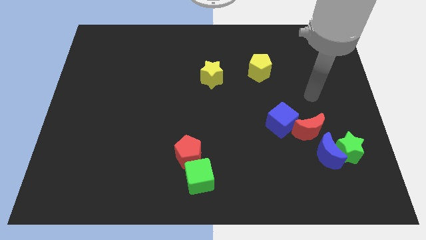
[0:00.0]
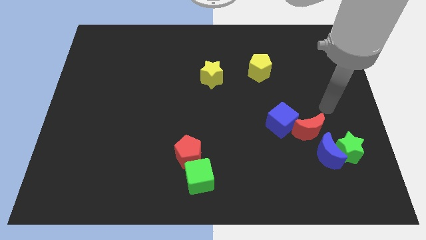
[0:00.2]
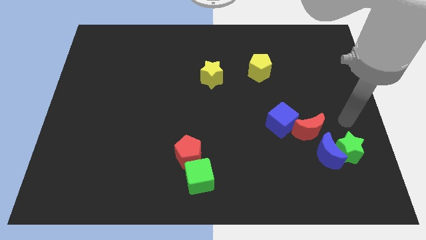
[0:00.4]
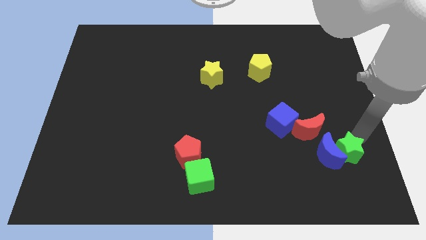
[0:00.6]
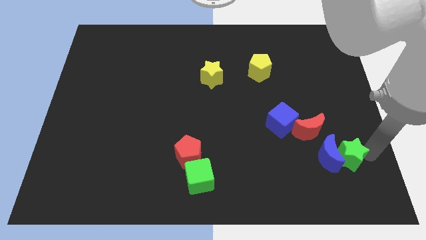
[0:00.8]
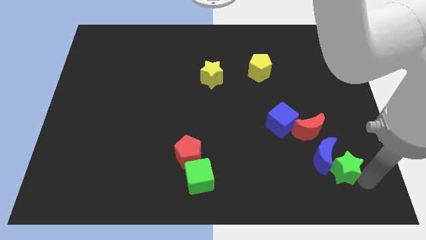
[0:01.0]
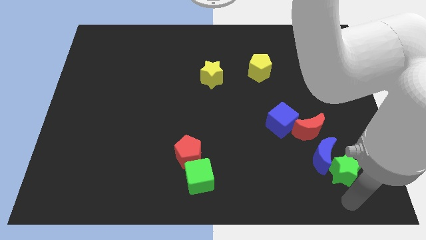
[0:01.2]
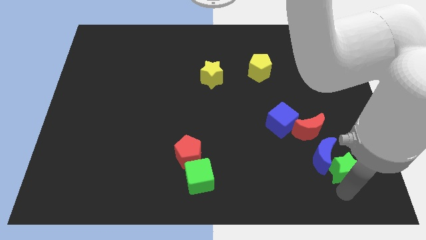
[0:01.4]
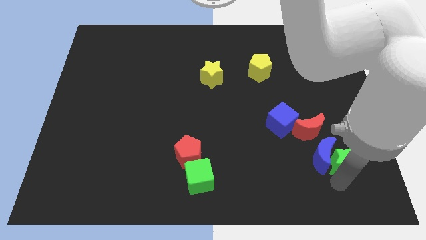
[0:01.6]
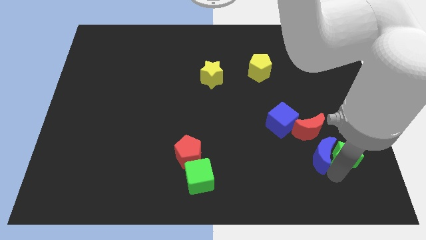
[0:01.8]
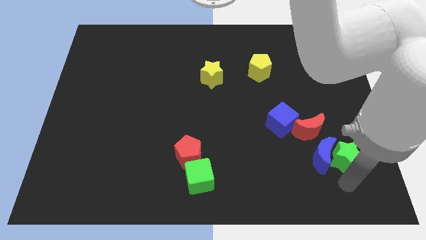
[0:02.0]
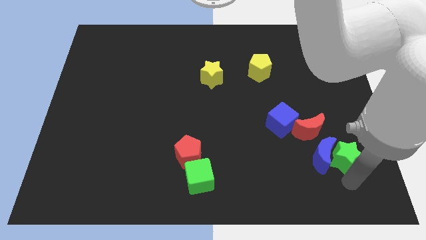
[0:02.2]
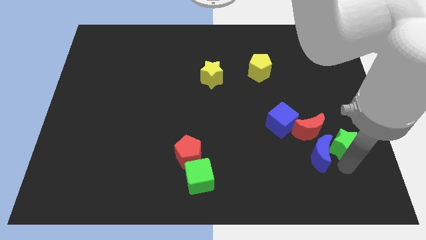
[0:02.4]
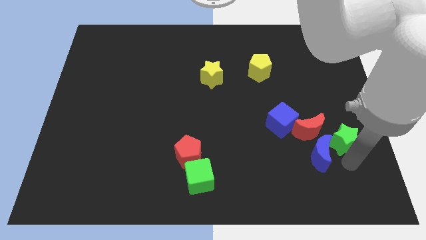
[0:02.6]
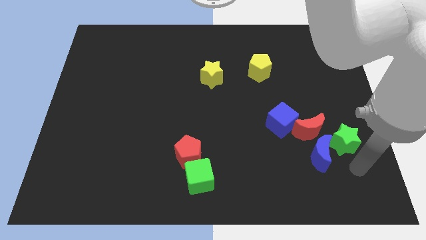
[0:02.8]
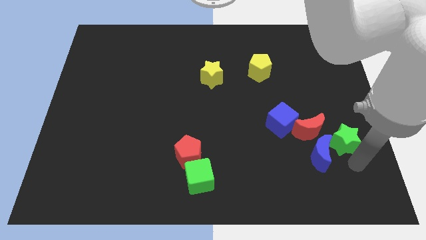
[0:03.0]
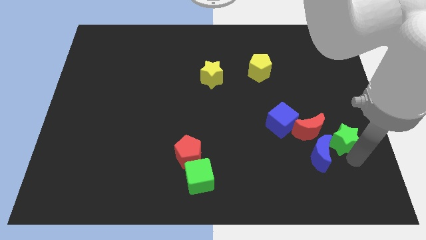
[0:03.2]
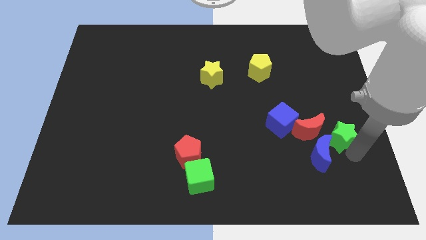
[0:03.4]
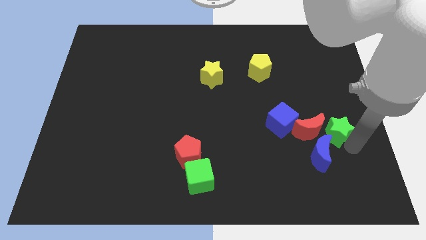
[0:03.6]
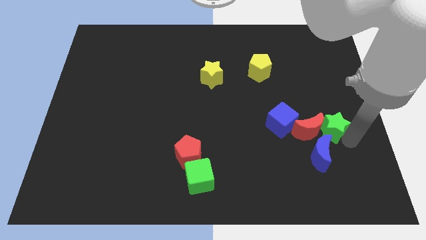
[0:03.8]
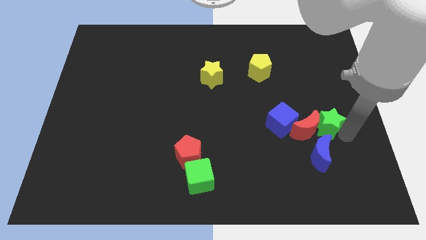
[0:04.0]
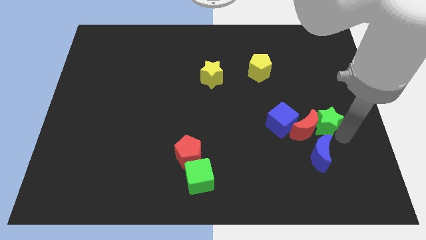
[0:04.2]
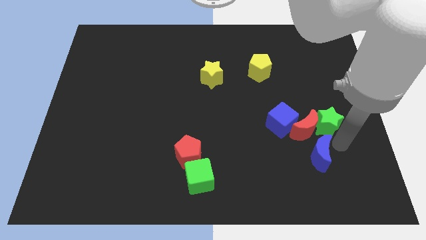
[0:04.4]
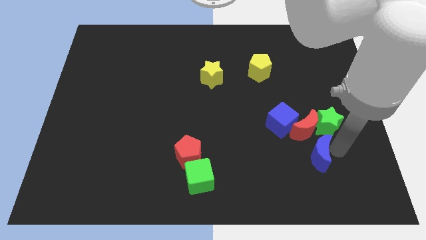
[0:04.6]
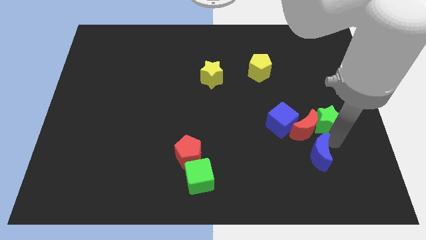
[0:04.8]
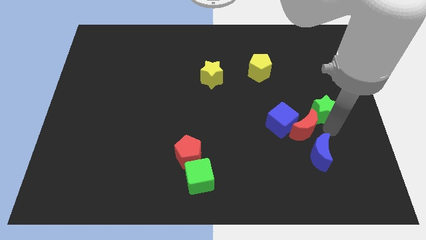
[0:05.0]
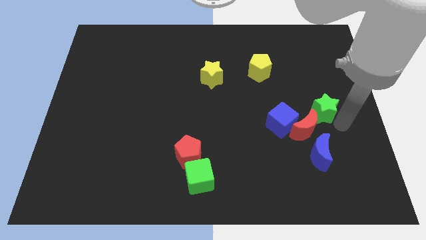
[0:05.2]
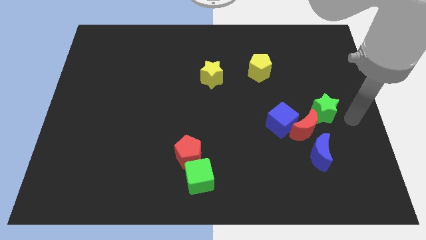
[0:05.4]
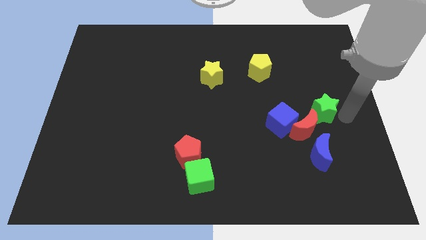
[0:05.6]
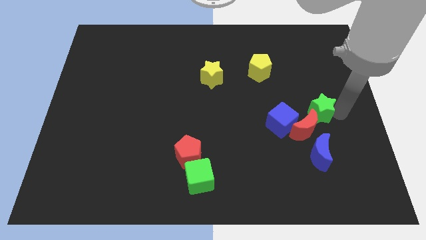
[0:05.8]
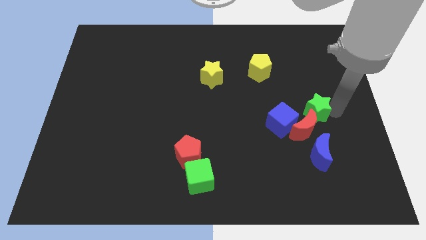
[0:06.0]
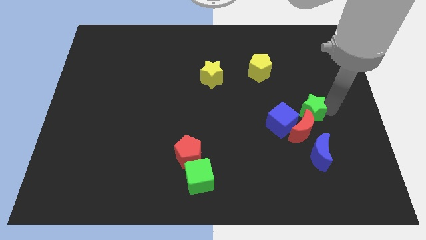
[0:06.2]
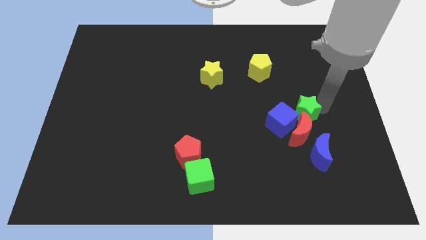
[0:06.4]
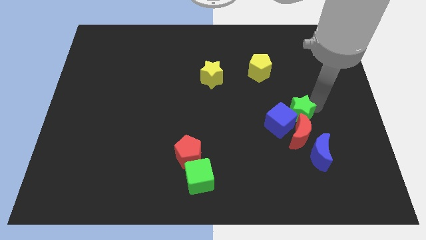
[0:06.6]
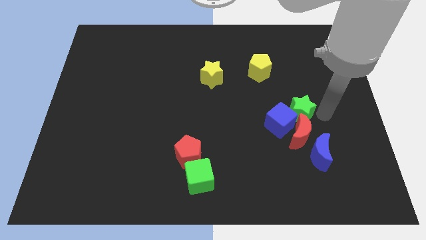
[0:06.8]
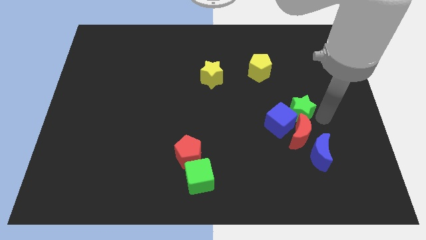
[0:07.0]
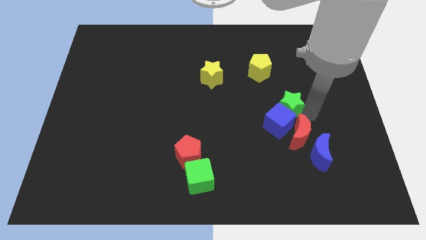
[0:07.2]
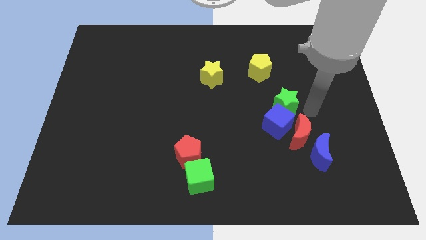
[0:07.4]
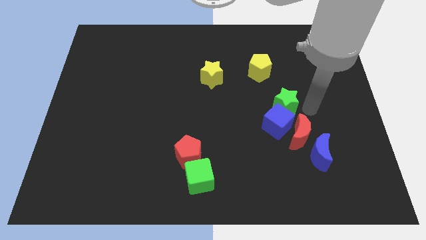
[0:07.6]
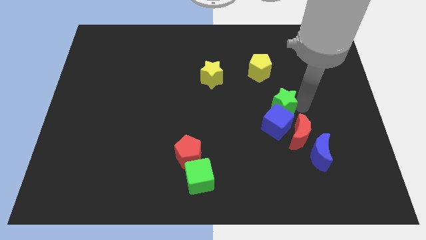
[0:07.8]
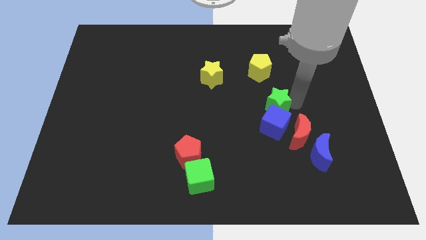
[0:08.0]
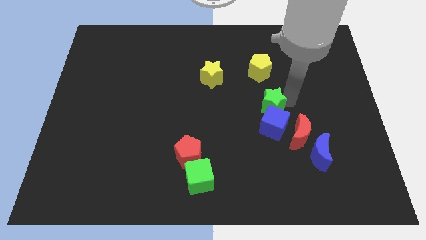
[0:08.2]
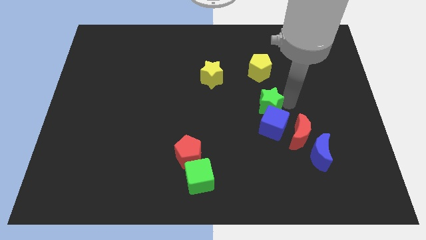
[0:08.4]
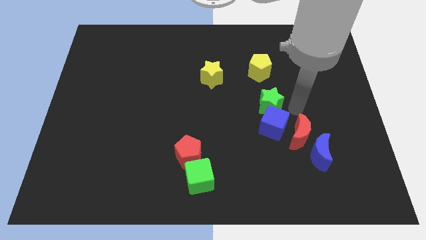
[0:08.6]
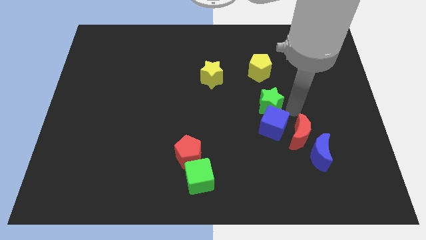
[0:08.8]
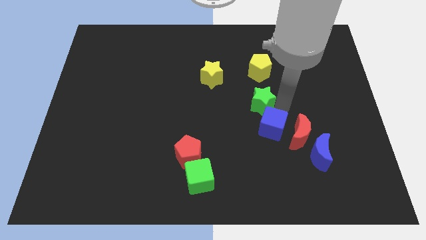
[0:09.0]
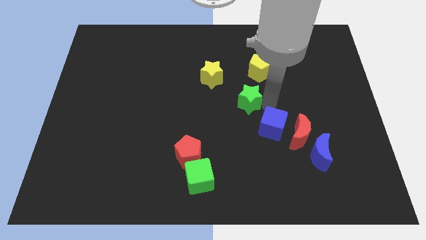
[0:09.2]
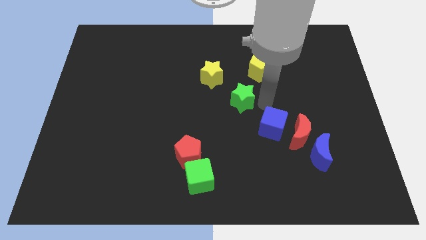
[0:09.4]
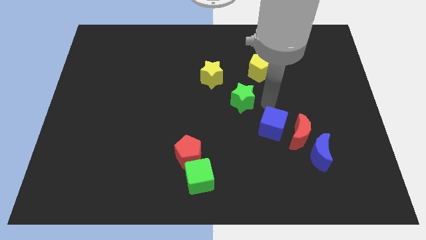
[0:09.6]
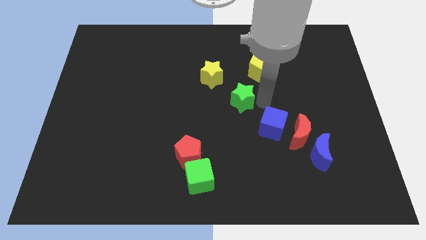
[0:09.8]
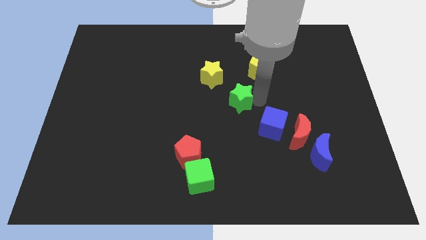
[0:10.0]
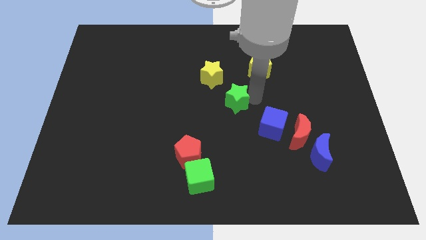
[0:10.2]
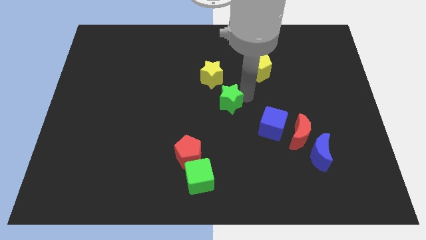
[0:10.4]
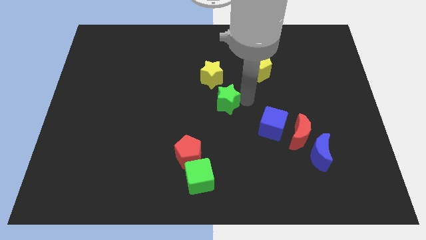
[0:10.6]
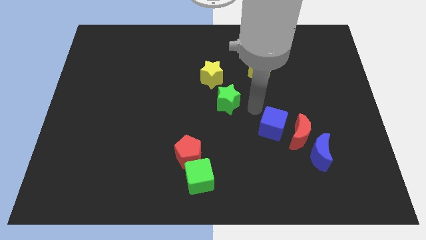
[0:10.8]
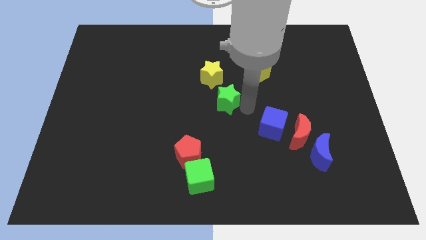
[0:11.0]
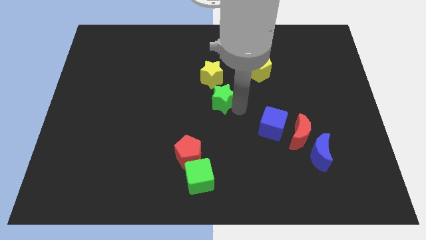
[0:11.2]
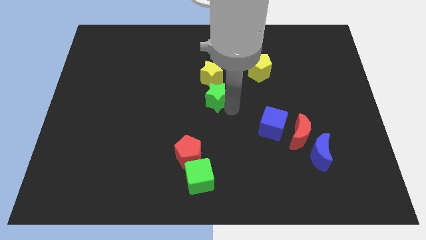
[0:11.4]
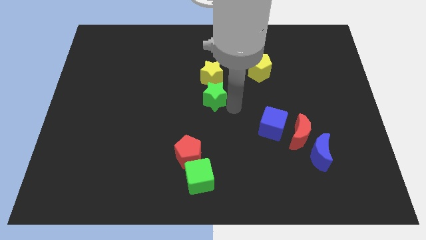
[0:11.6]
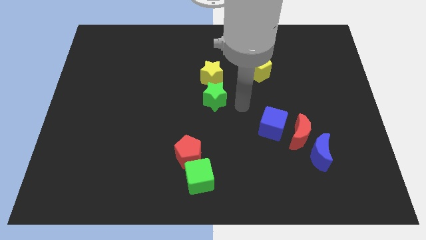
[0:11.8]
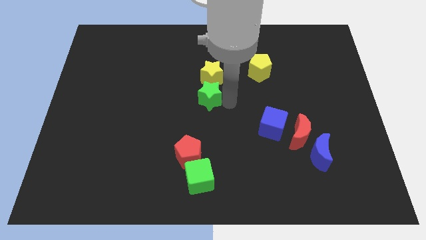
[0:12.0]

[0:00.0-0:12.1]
push the green star to the bottom left side of the yellow star
